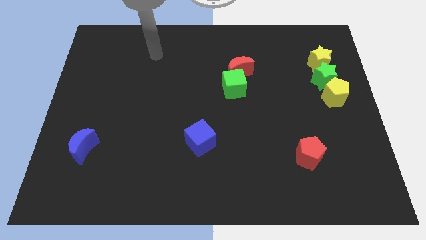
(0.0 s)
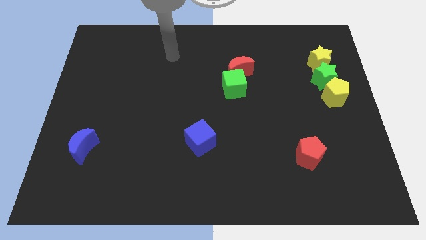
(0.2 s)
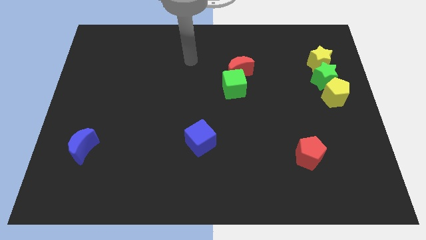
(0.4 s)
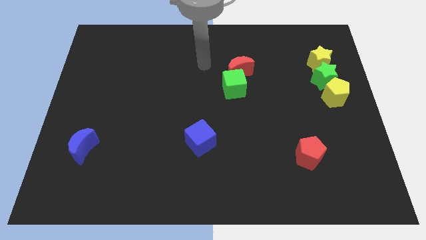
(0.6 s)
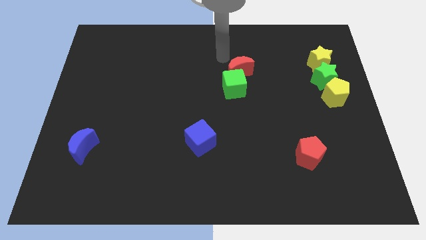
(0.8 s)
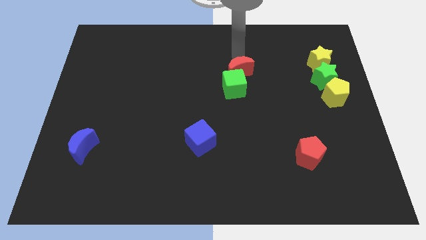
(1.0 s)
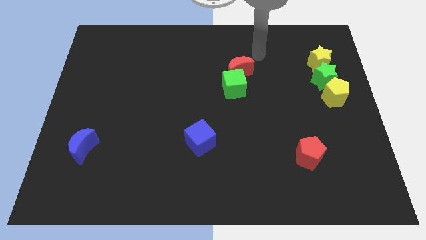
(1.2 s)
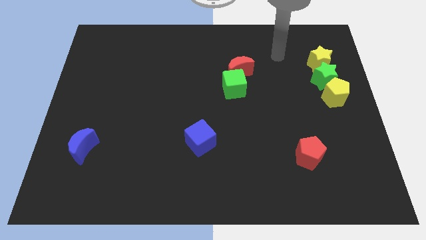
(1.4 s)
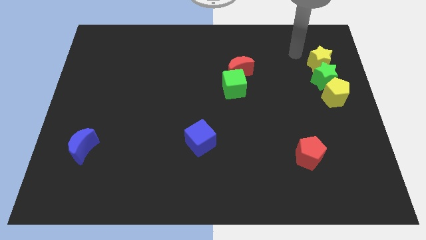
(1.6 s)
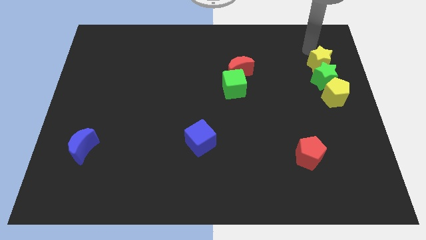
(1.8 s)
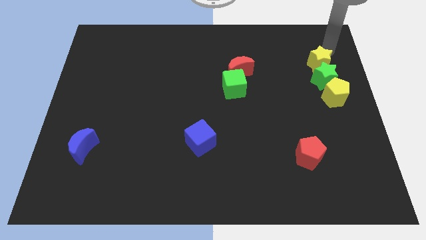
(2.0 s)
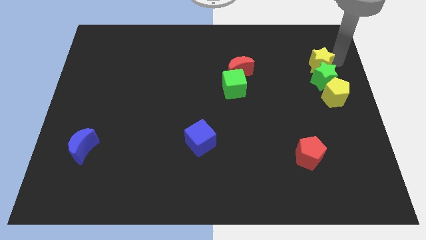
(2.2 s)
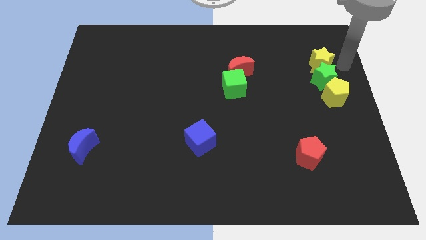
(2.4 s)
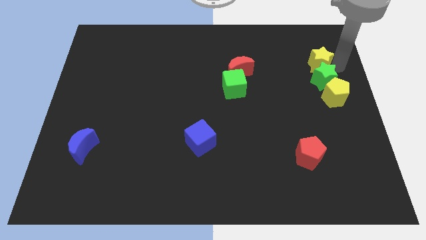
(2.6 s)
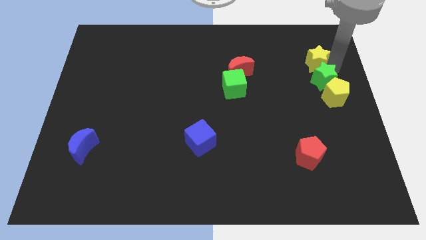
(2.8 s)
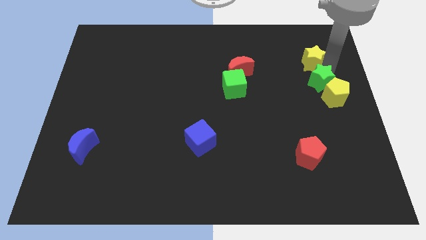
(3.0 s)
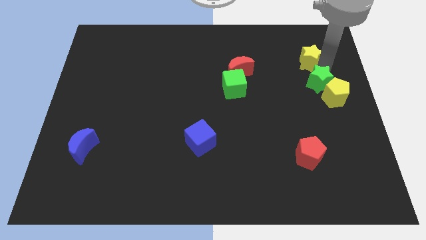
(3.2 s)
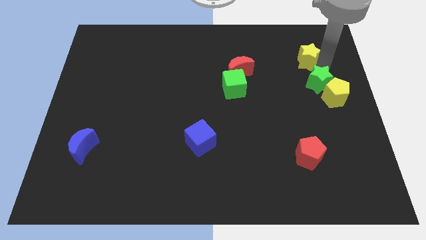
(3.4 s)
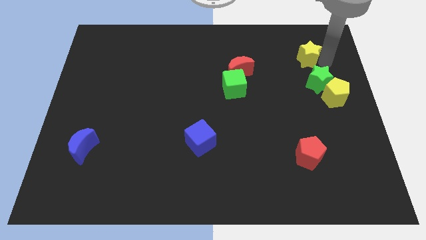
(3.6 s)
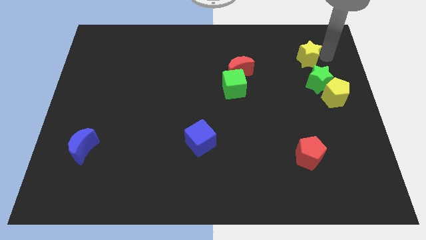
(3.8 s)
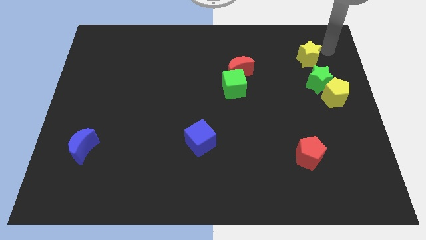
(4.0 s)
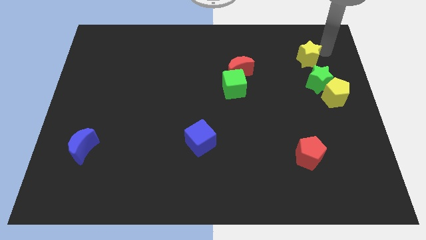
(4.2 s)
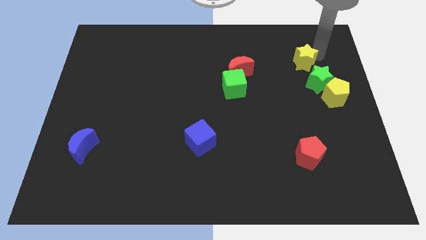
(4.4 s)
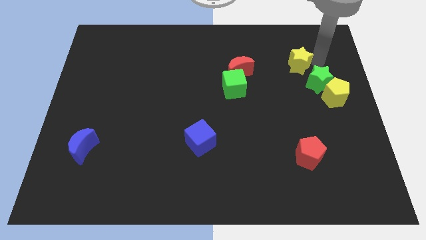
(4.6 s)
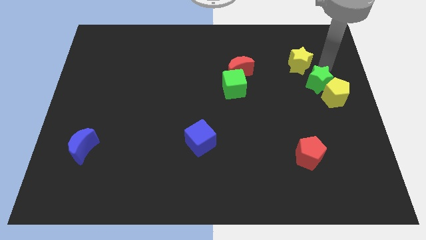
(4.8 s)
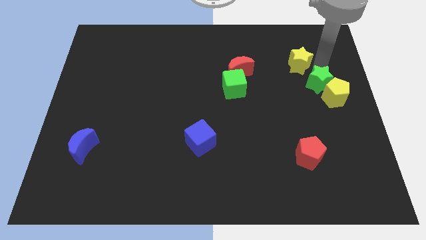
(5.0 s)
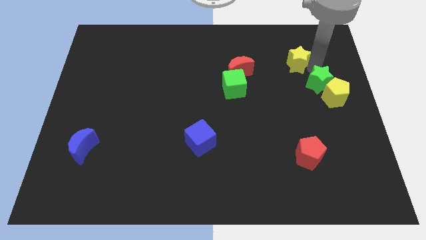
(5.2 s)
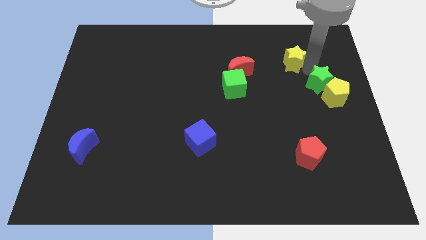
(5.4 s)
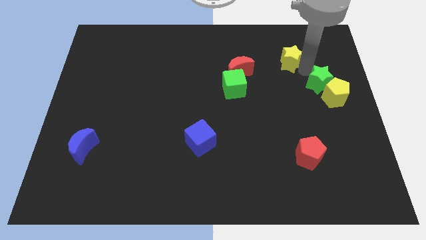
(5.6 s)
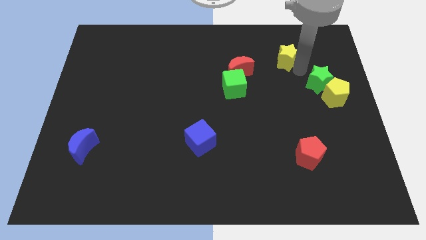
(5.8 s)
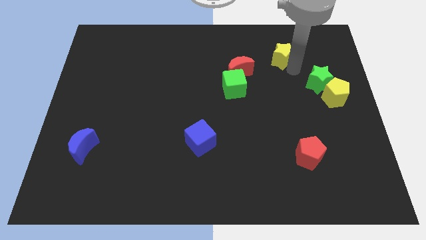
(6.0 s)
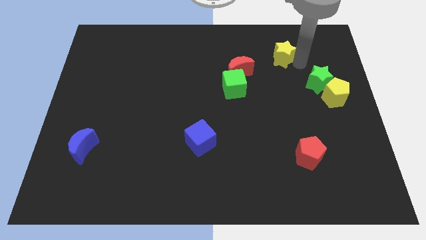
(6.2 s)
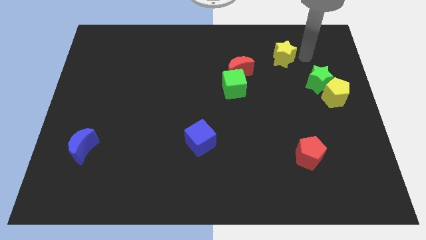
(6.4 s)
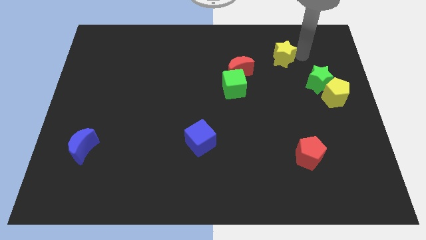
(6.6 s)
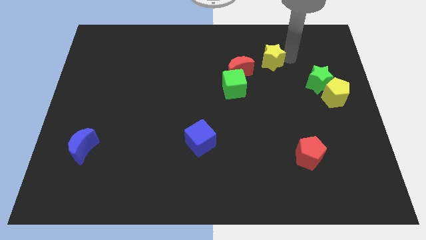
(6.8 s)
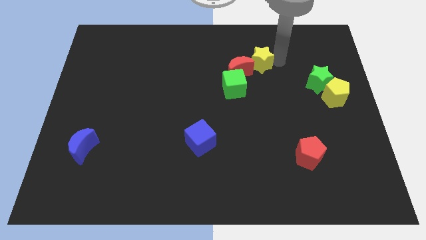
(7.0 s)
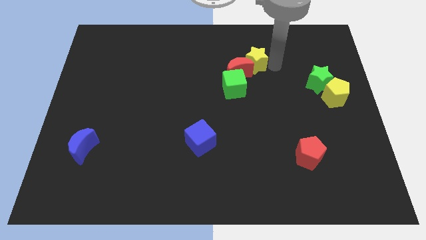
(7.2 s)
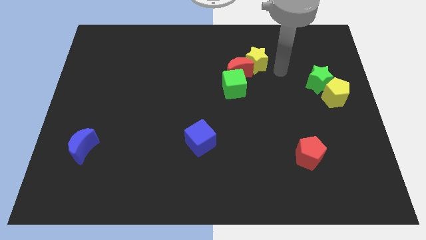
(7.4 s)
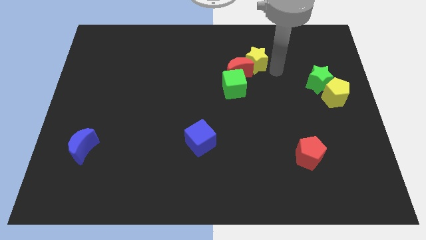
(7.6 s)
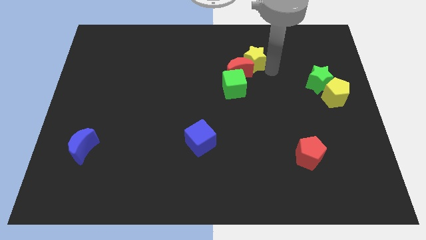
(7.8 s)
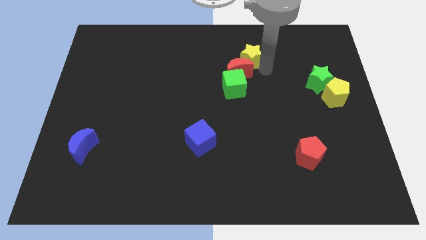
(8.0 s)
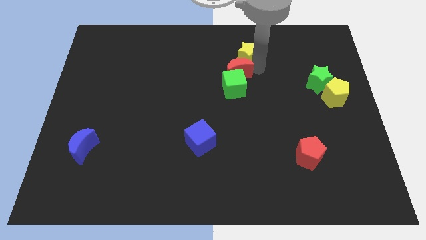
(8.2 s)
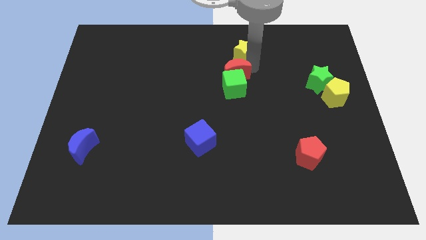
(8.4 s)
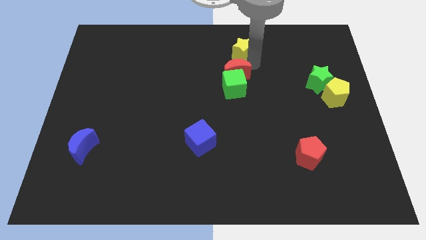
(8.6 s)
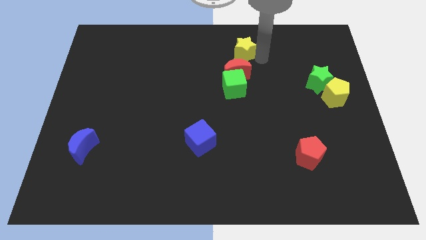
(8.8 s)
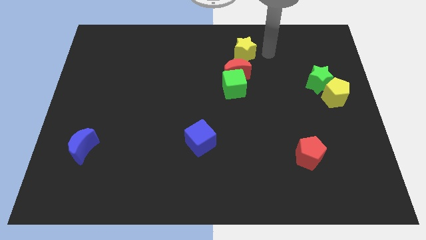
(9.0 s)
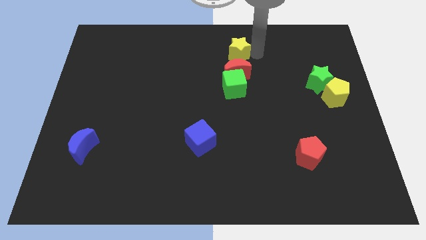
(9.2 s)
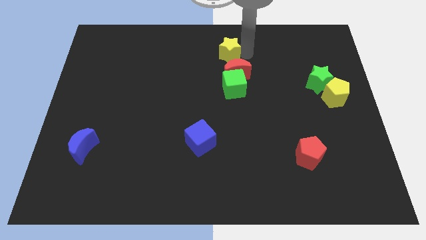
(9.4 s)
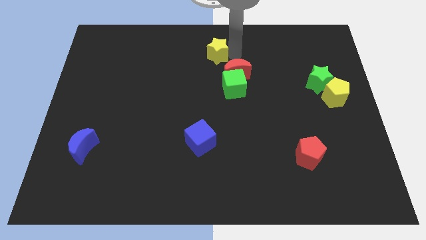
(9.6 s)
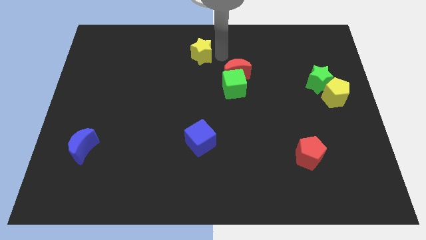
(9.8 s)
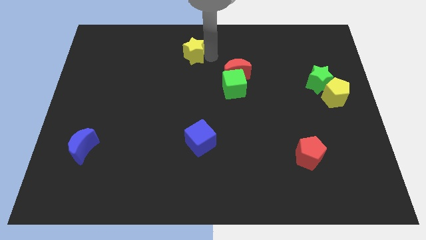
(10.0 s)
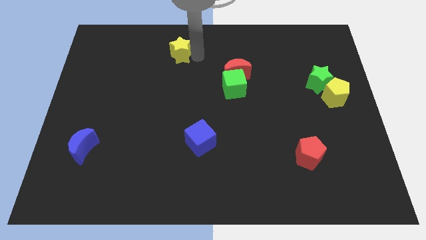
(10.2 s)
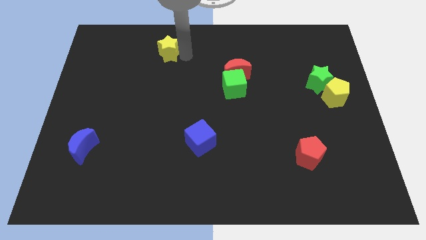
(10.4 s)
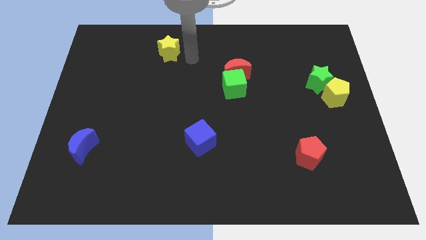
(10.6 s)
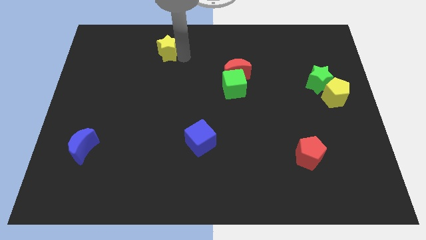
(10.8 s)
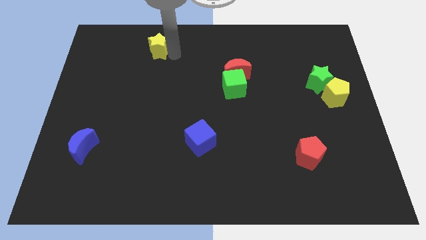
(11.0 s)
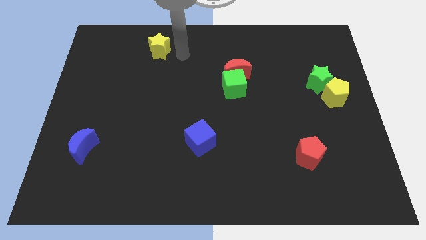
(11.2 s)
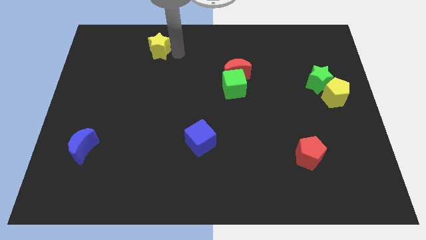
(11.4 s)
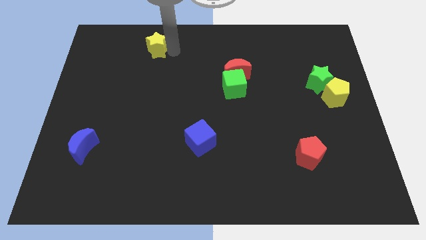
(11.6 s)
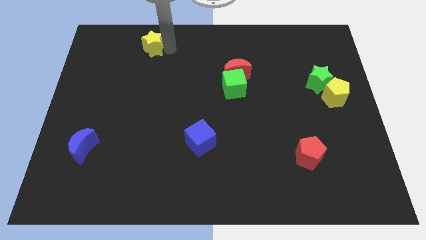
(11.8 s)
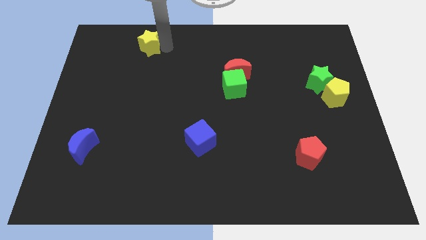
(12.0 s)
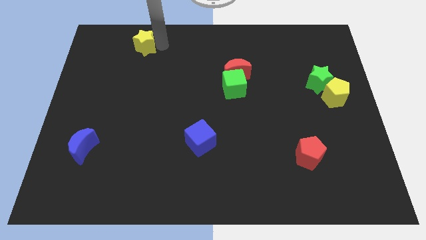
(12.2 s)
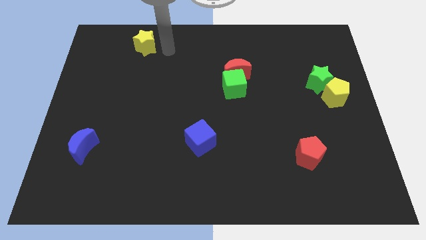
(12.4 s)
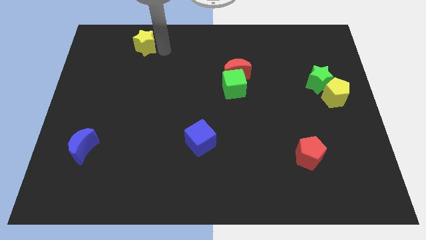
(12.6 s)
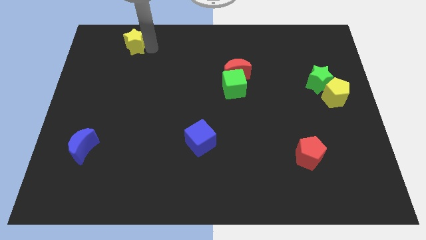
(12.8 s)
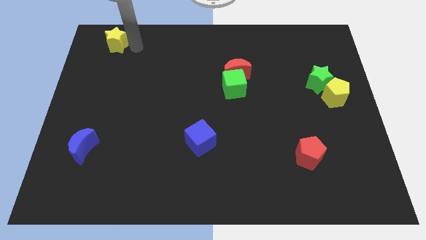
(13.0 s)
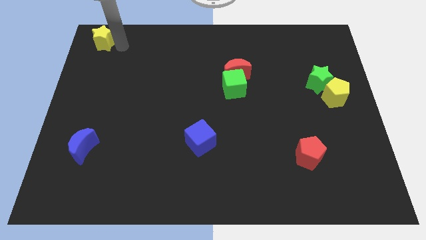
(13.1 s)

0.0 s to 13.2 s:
push the yellow star to the top left
